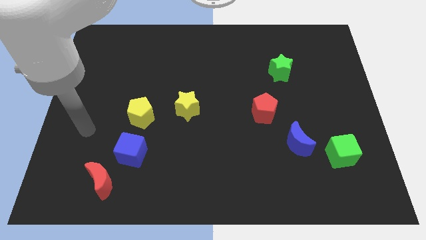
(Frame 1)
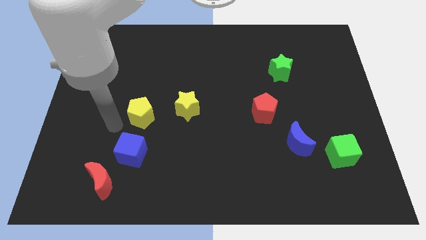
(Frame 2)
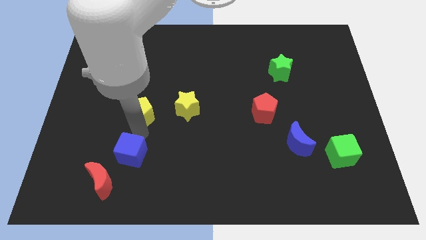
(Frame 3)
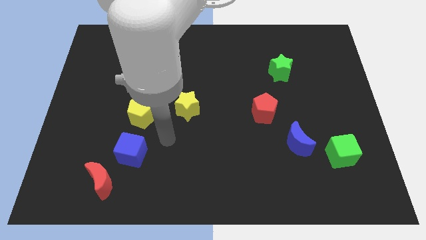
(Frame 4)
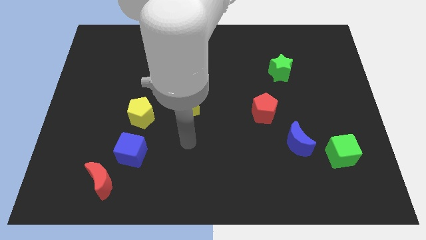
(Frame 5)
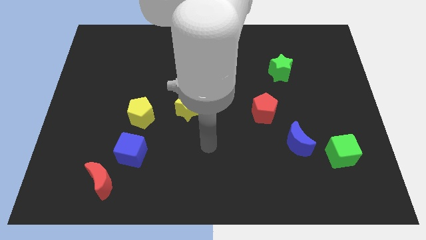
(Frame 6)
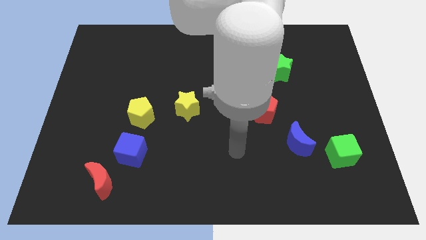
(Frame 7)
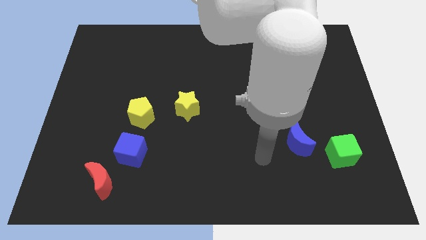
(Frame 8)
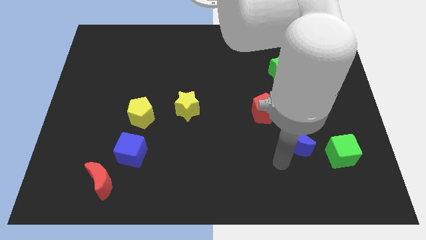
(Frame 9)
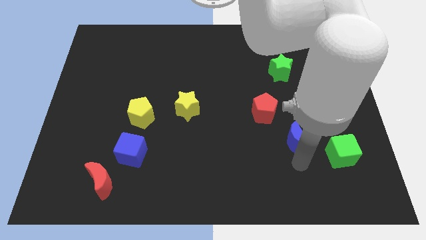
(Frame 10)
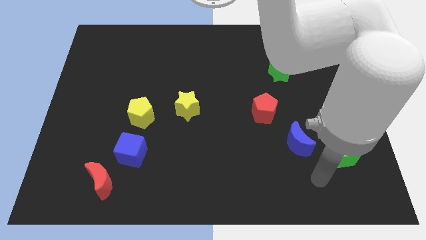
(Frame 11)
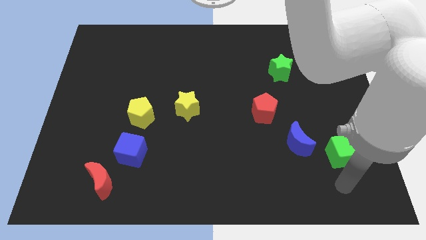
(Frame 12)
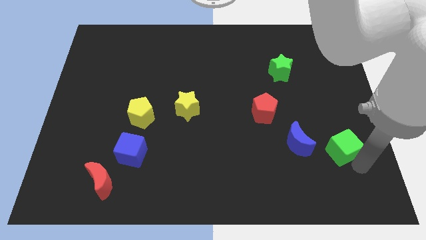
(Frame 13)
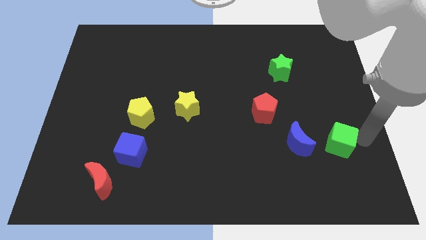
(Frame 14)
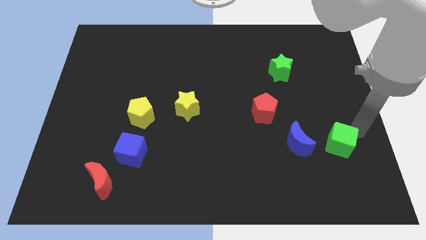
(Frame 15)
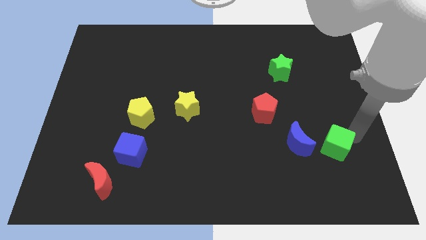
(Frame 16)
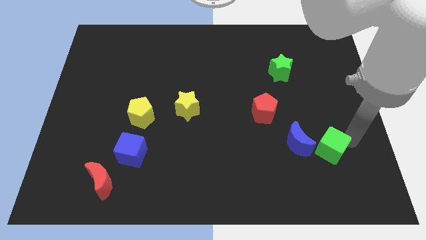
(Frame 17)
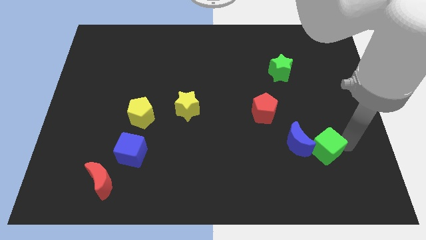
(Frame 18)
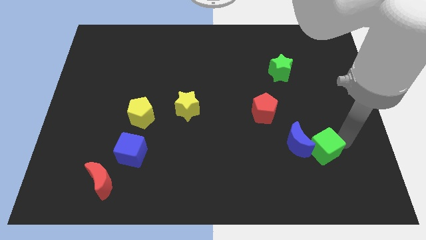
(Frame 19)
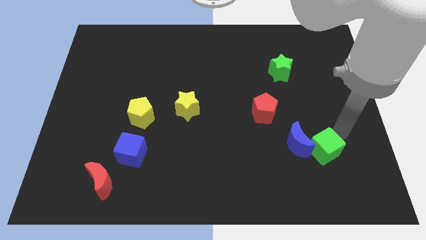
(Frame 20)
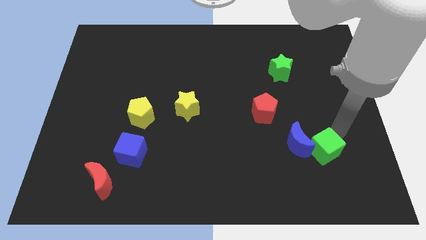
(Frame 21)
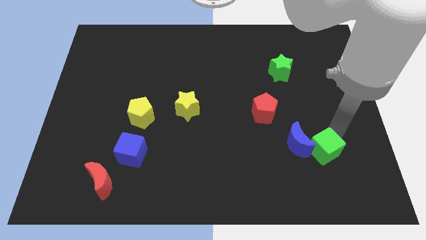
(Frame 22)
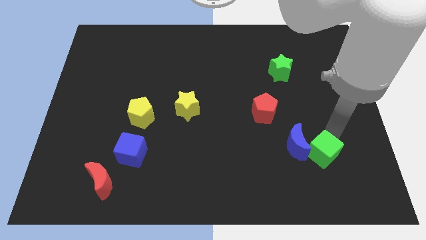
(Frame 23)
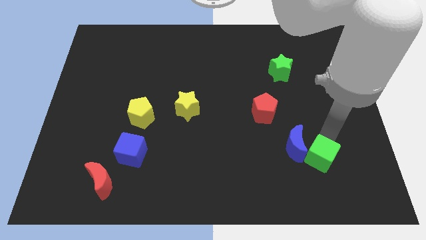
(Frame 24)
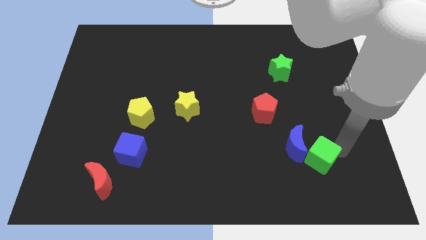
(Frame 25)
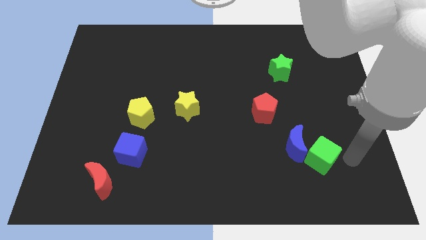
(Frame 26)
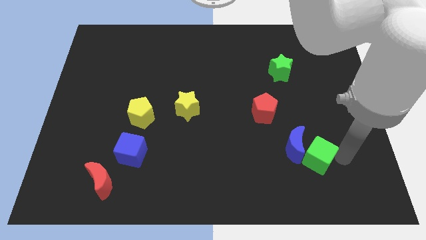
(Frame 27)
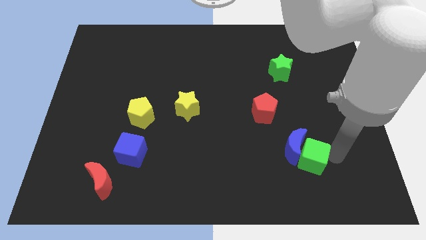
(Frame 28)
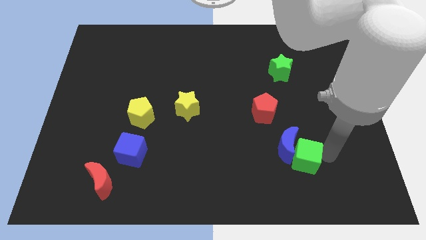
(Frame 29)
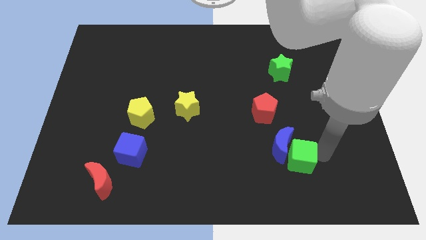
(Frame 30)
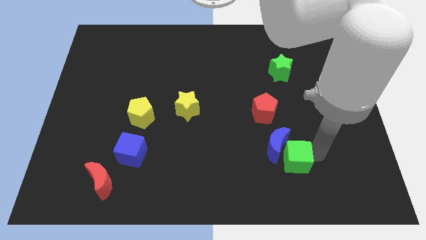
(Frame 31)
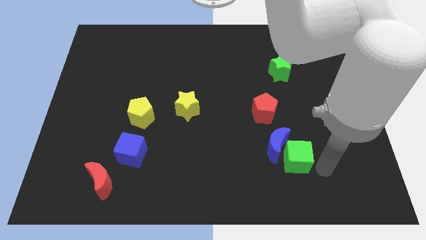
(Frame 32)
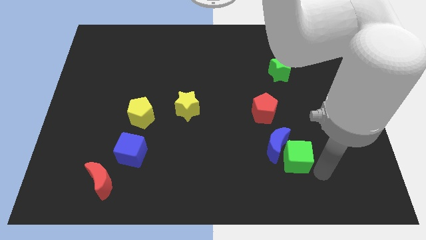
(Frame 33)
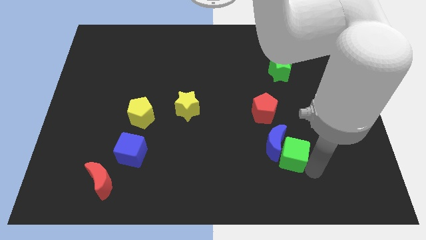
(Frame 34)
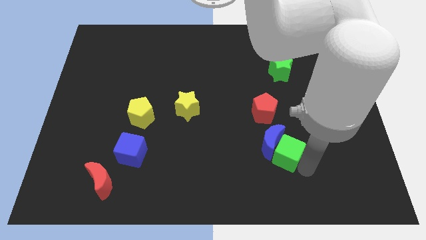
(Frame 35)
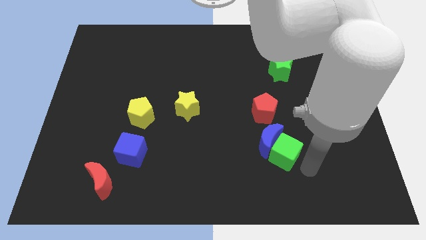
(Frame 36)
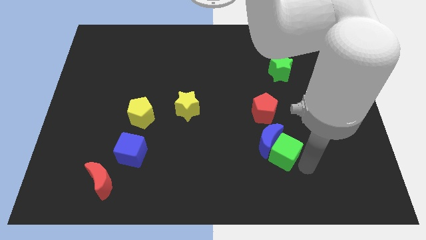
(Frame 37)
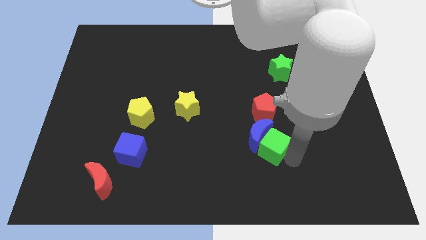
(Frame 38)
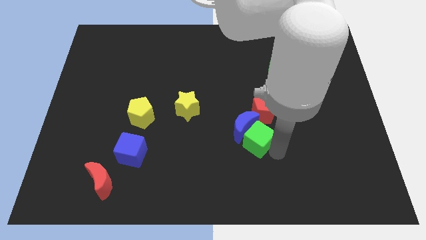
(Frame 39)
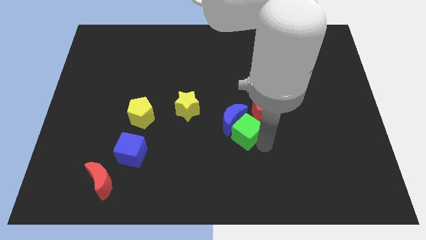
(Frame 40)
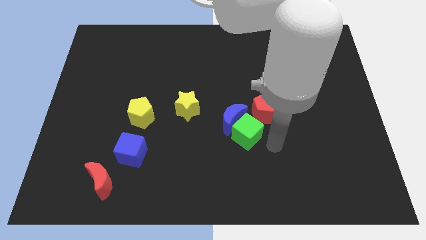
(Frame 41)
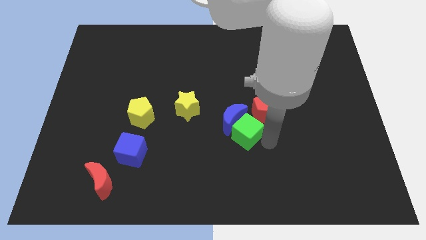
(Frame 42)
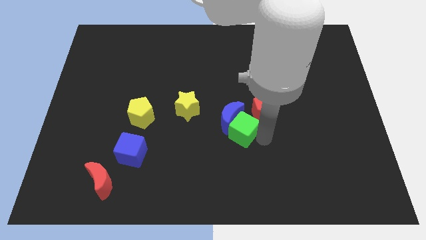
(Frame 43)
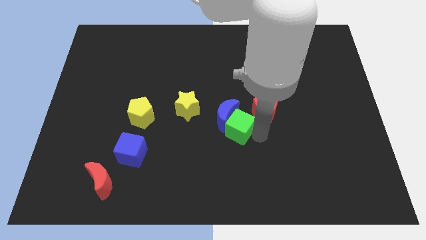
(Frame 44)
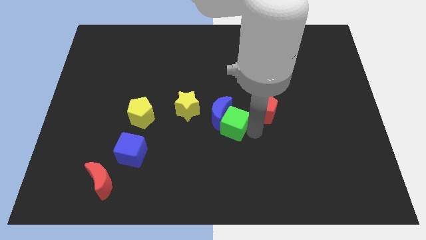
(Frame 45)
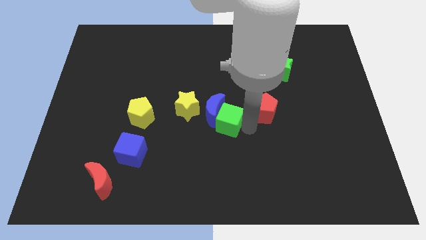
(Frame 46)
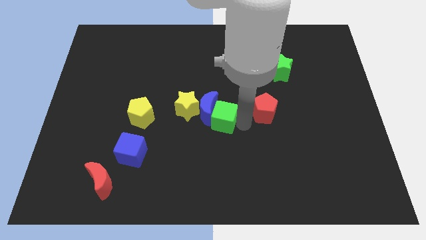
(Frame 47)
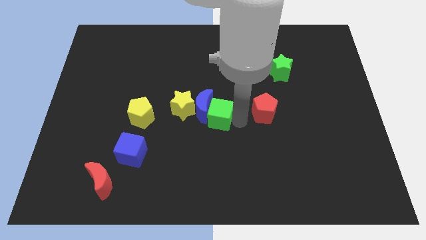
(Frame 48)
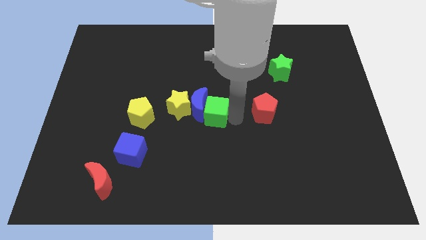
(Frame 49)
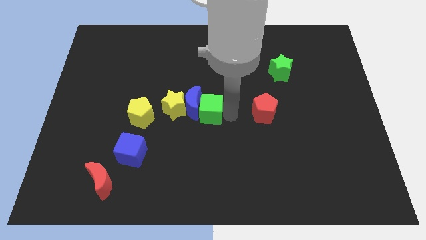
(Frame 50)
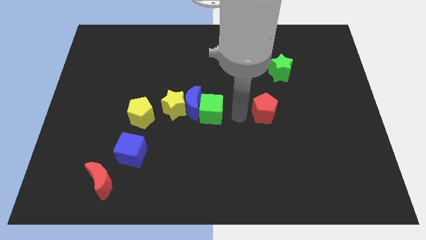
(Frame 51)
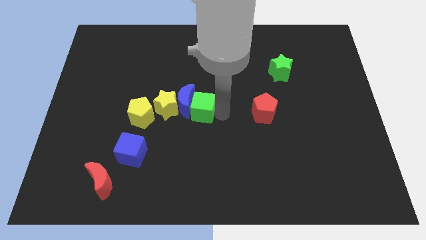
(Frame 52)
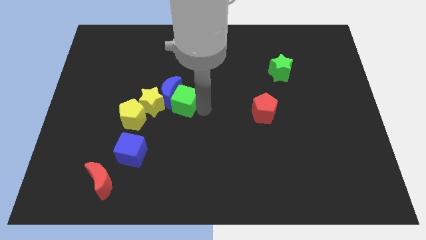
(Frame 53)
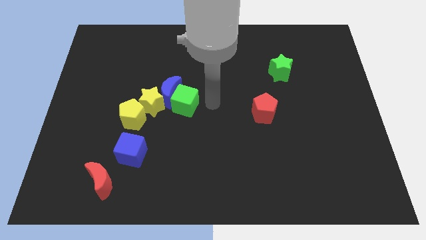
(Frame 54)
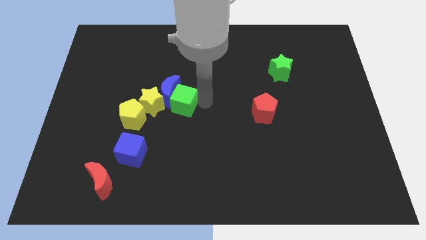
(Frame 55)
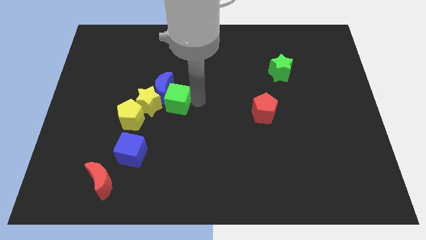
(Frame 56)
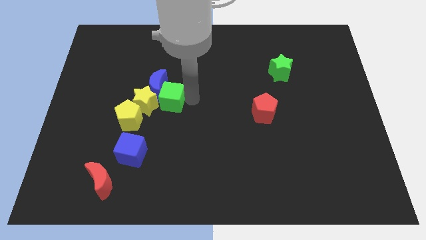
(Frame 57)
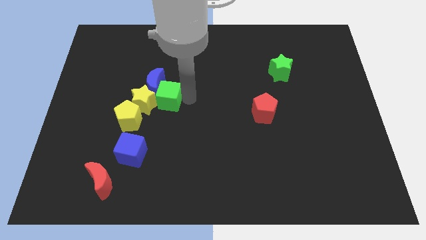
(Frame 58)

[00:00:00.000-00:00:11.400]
move the green cube towards the yellow star

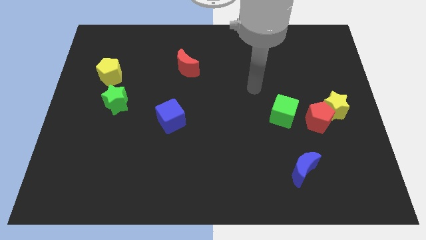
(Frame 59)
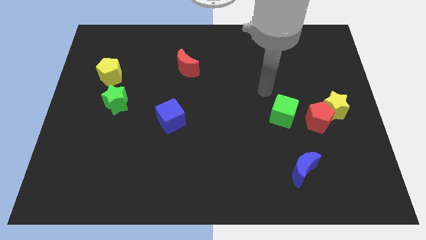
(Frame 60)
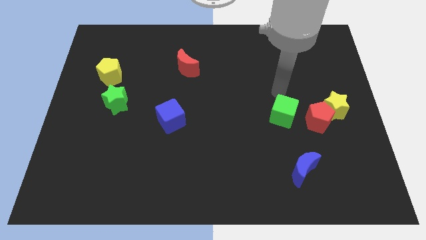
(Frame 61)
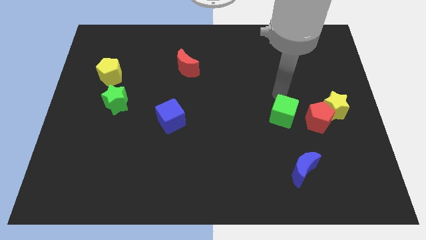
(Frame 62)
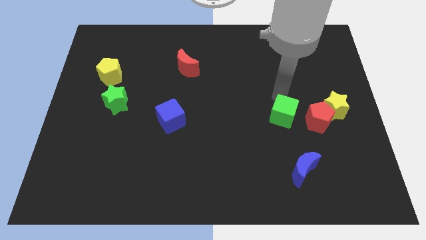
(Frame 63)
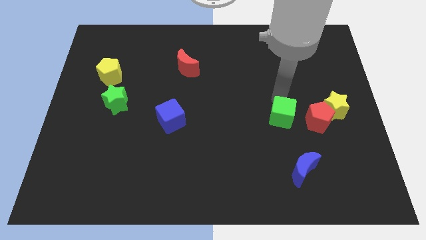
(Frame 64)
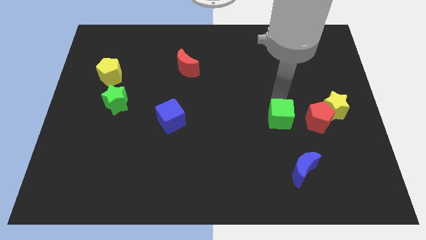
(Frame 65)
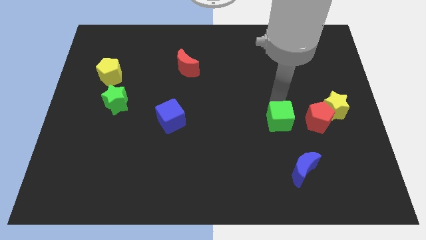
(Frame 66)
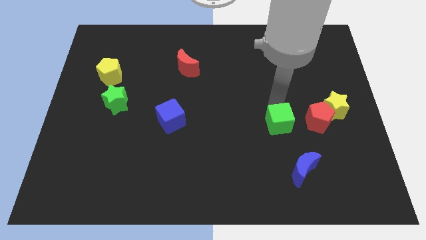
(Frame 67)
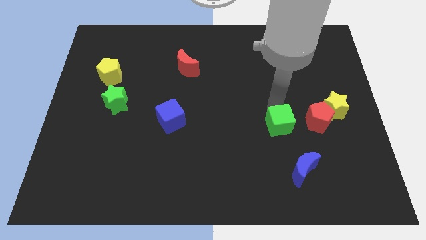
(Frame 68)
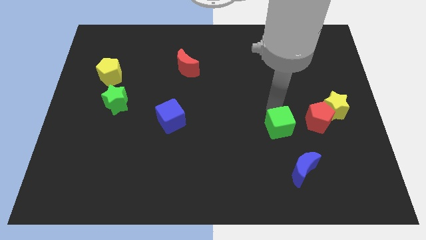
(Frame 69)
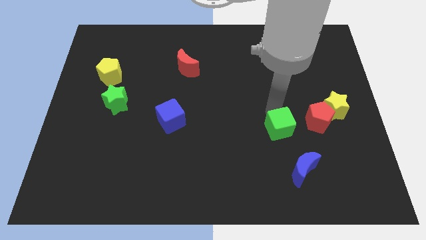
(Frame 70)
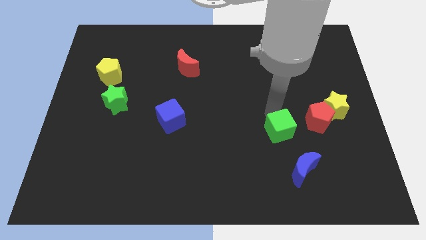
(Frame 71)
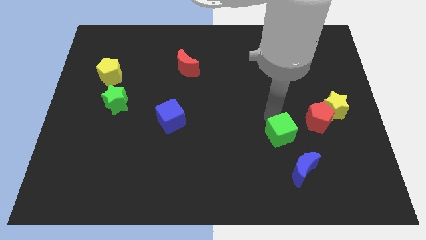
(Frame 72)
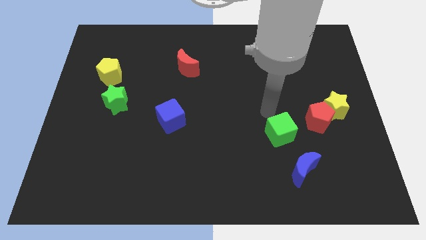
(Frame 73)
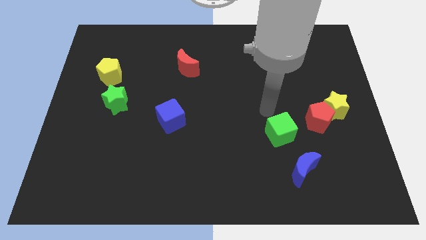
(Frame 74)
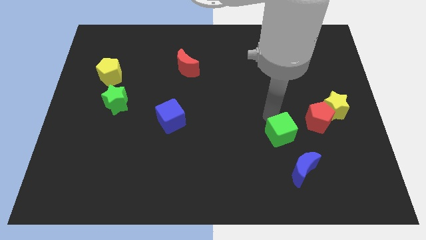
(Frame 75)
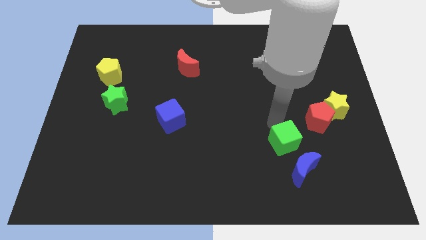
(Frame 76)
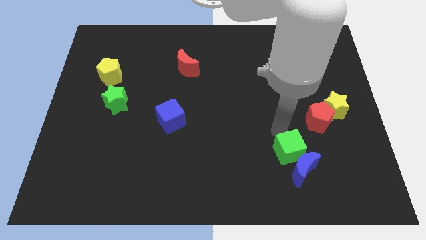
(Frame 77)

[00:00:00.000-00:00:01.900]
slide the green cube close to the blue moon
